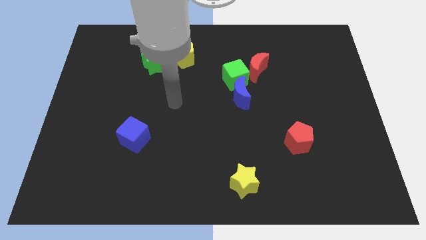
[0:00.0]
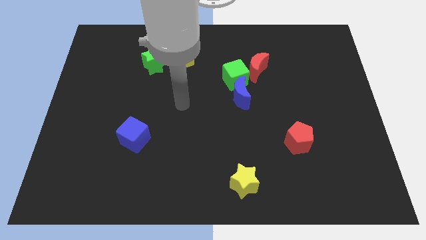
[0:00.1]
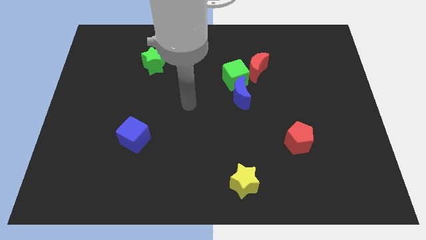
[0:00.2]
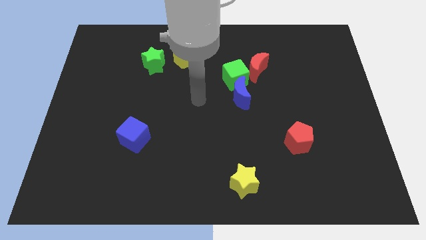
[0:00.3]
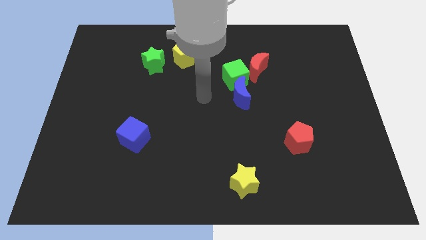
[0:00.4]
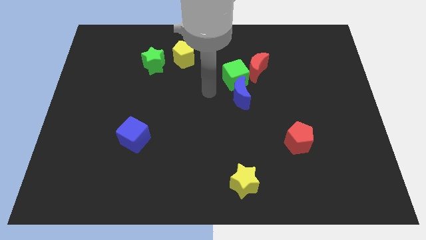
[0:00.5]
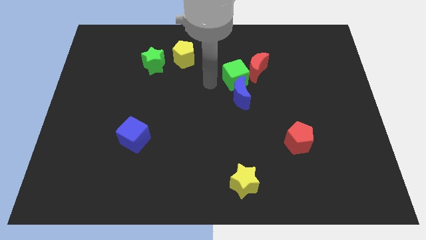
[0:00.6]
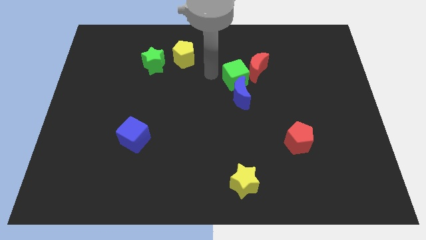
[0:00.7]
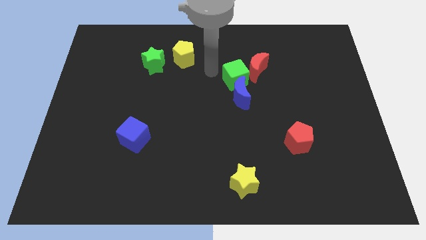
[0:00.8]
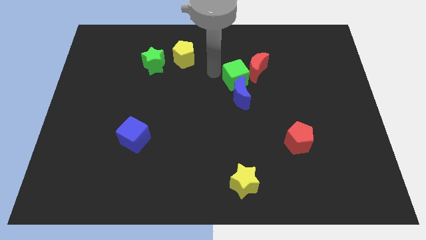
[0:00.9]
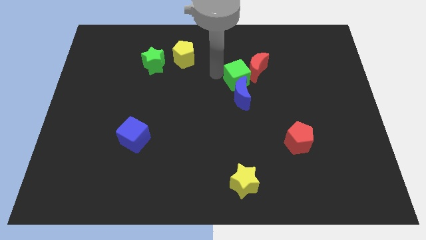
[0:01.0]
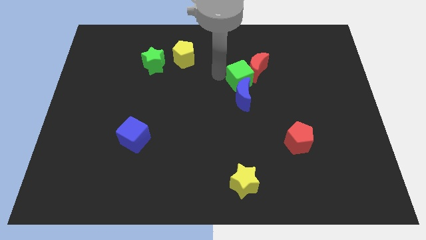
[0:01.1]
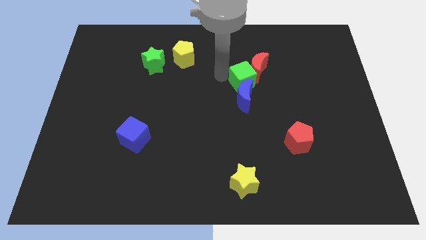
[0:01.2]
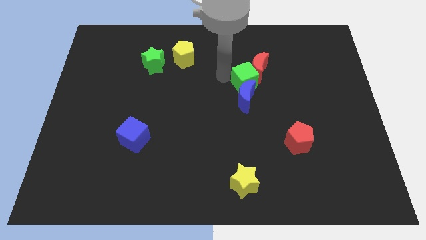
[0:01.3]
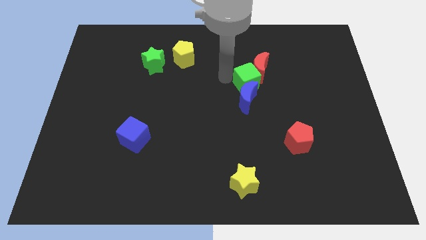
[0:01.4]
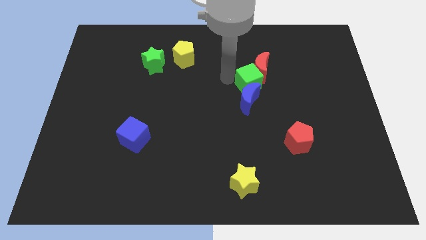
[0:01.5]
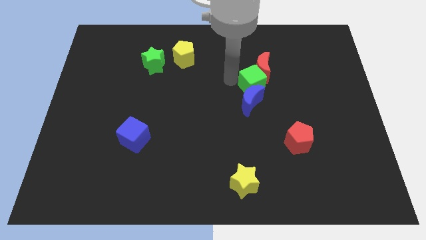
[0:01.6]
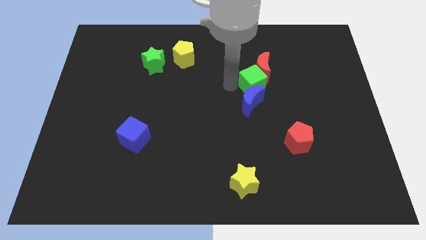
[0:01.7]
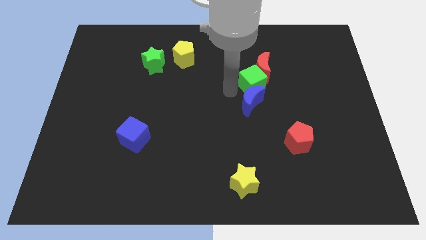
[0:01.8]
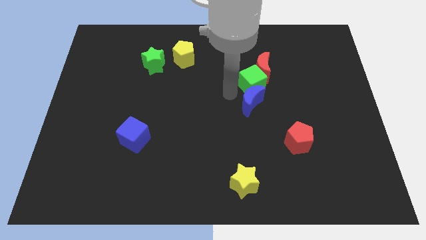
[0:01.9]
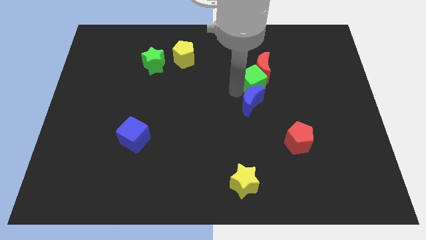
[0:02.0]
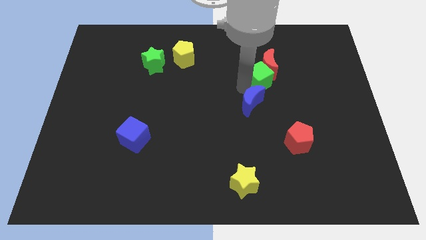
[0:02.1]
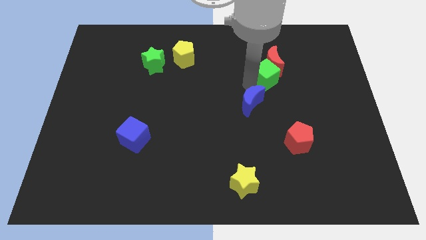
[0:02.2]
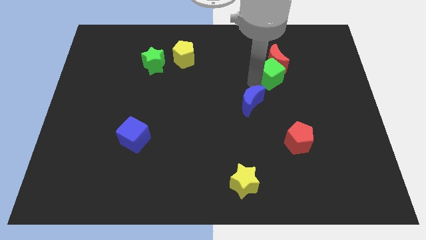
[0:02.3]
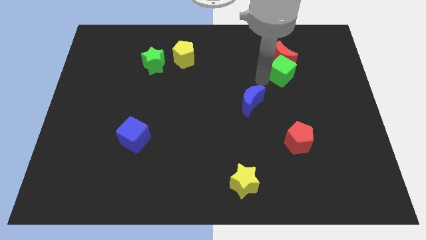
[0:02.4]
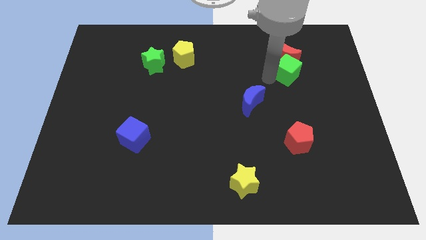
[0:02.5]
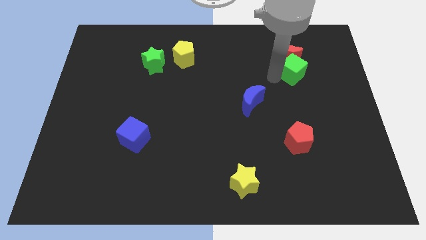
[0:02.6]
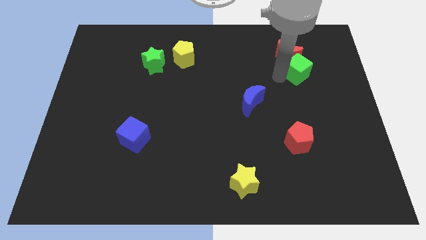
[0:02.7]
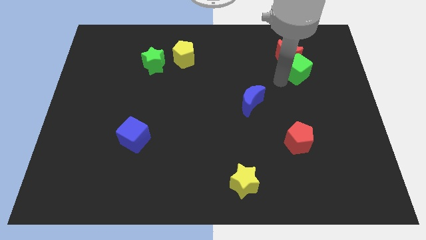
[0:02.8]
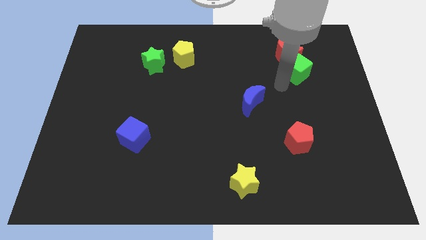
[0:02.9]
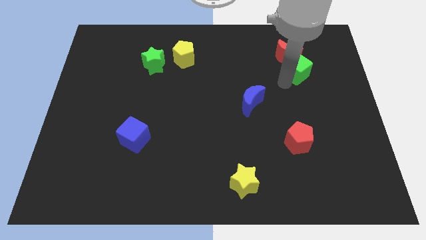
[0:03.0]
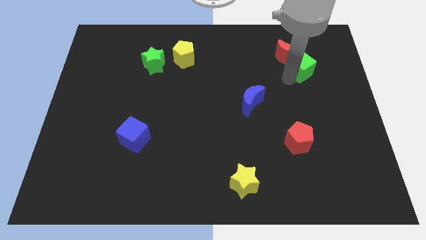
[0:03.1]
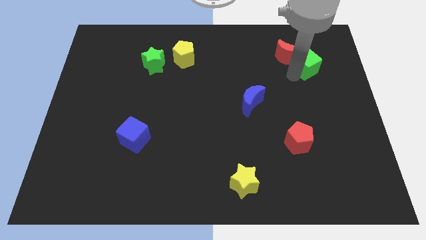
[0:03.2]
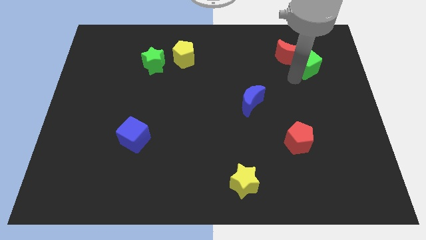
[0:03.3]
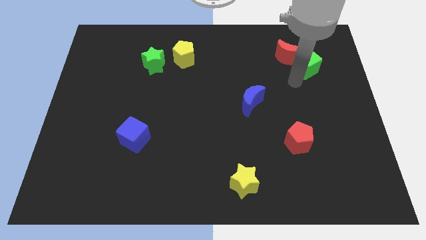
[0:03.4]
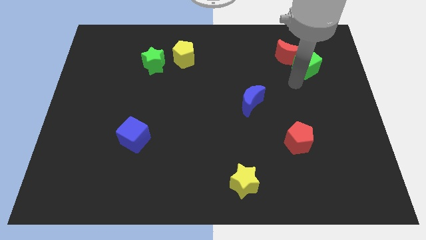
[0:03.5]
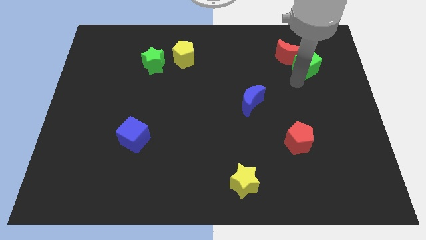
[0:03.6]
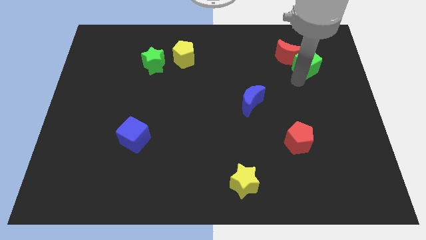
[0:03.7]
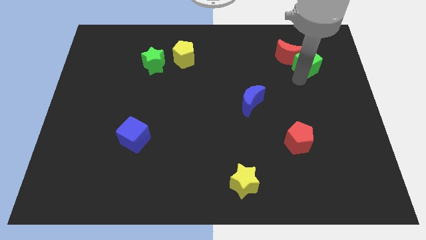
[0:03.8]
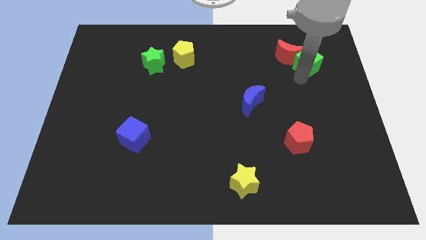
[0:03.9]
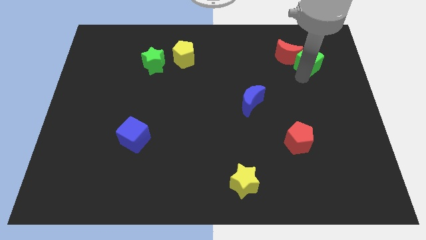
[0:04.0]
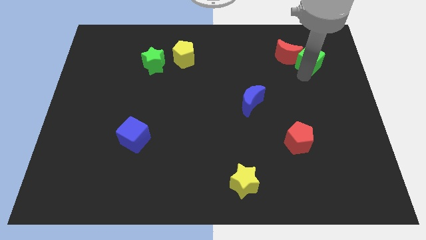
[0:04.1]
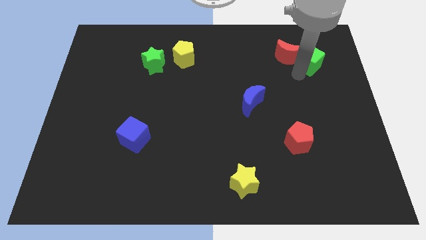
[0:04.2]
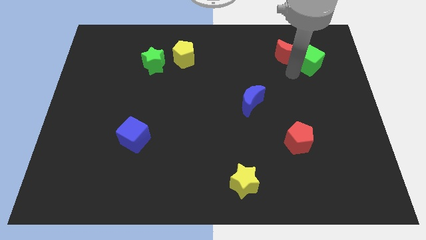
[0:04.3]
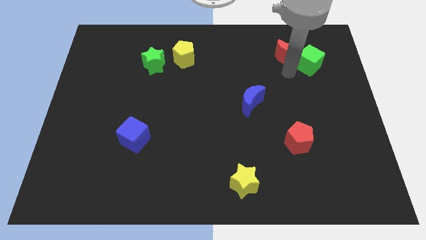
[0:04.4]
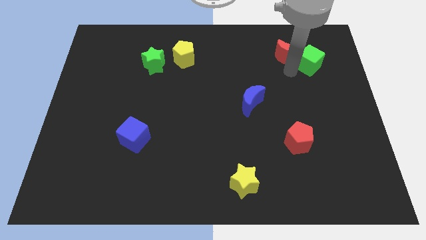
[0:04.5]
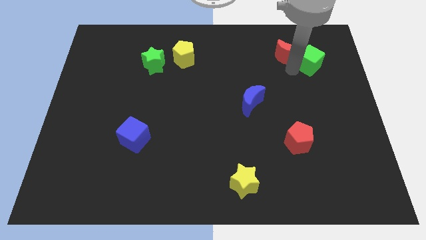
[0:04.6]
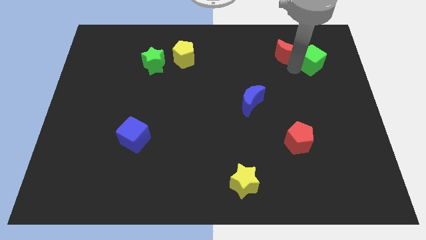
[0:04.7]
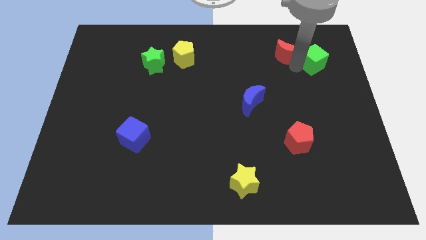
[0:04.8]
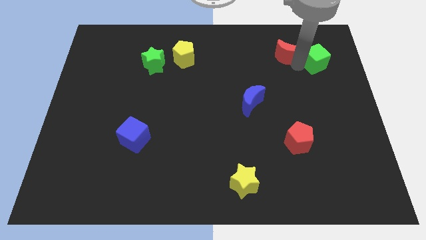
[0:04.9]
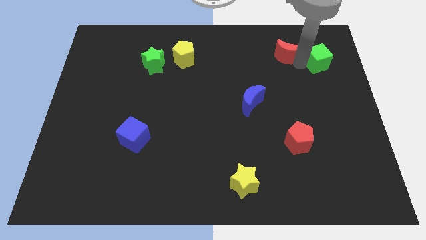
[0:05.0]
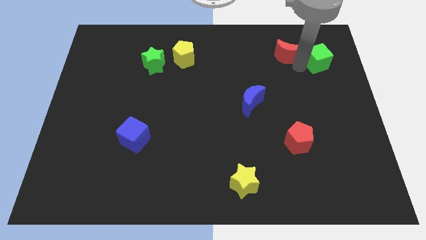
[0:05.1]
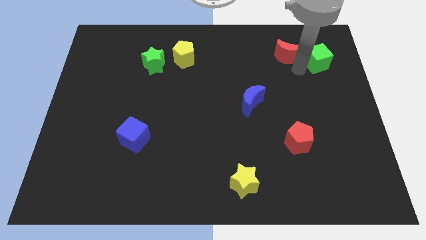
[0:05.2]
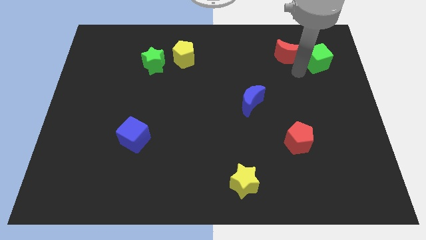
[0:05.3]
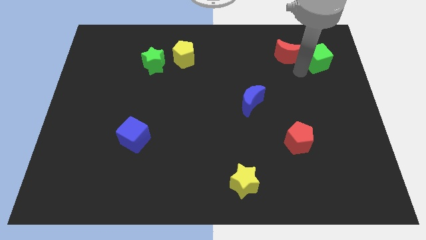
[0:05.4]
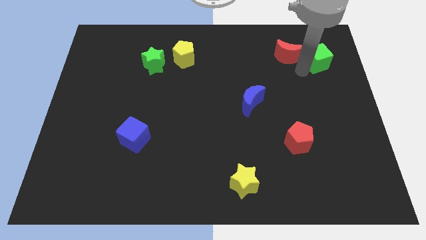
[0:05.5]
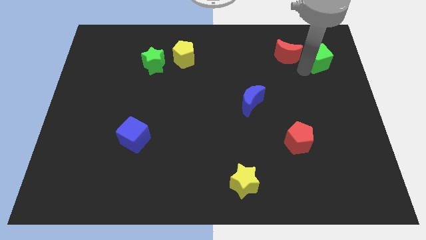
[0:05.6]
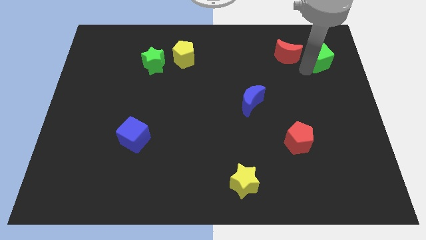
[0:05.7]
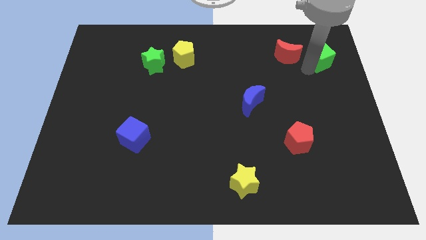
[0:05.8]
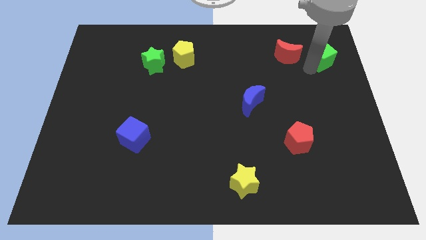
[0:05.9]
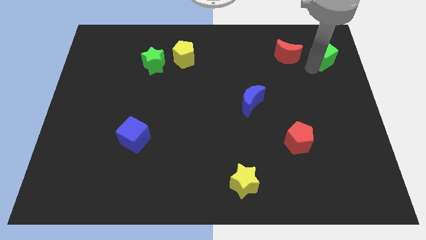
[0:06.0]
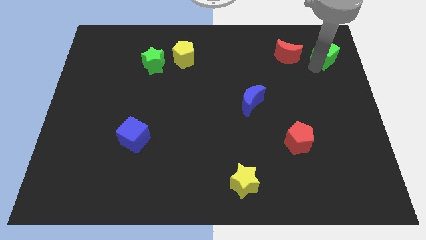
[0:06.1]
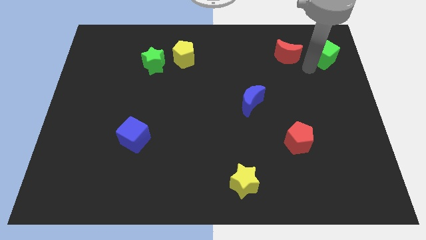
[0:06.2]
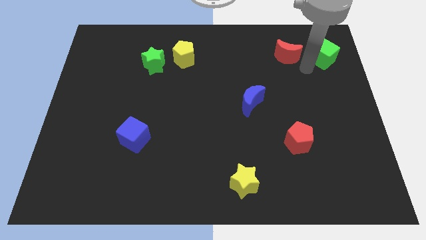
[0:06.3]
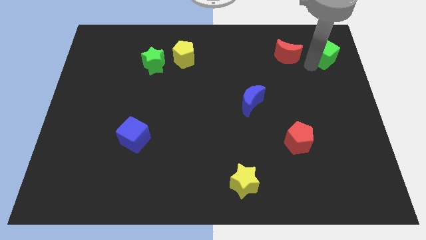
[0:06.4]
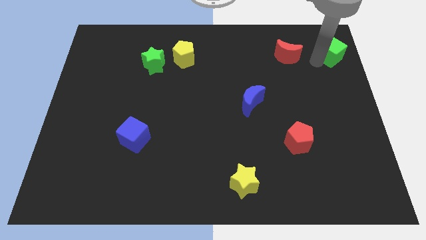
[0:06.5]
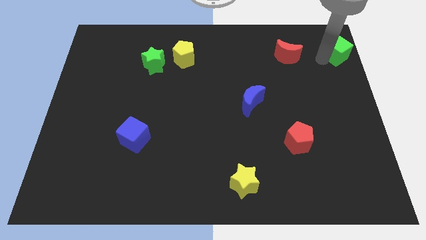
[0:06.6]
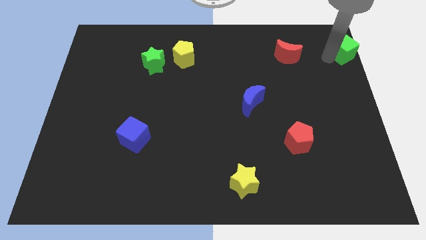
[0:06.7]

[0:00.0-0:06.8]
put the green cube to the upper right corner

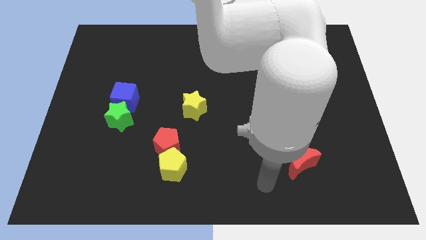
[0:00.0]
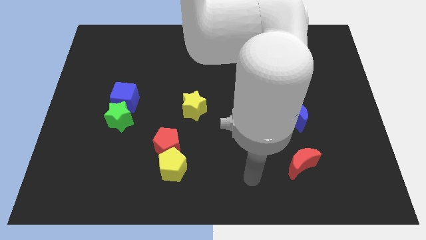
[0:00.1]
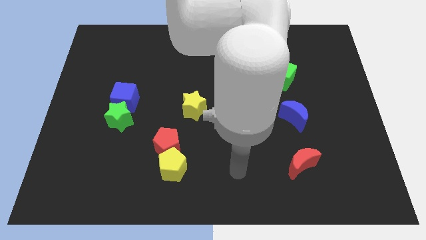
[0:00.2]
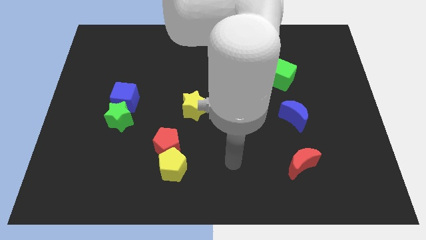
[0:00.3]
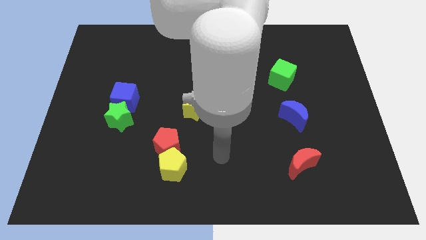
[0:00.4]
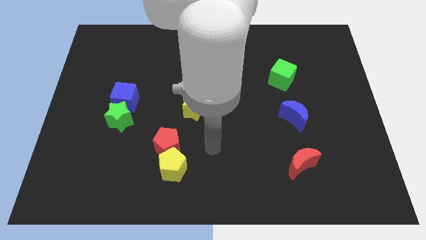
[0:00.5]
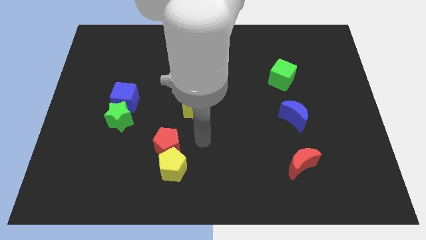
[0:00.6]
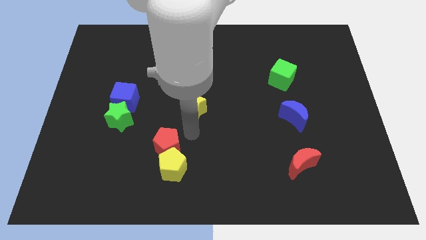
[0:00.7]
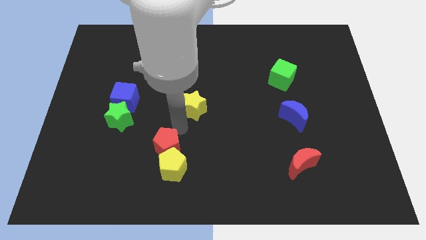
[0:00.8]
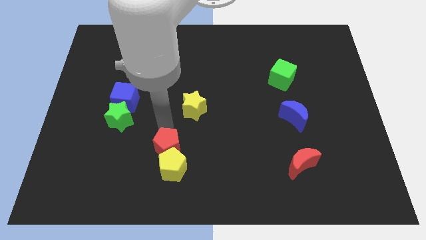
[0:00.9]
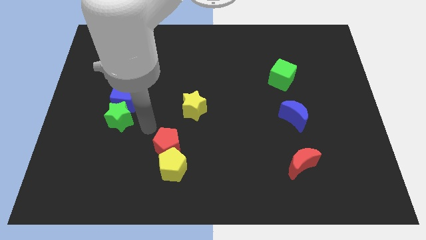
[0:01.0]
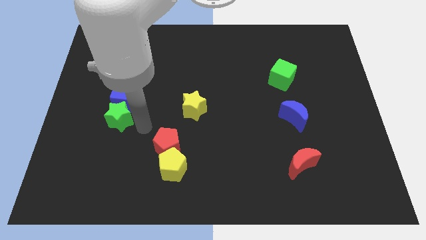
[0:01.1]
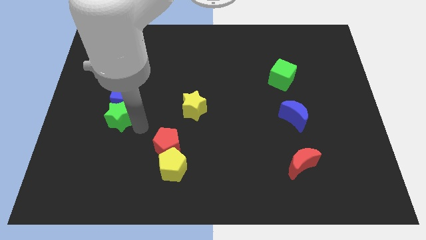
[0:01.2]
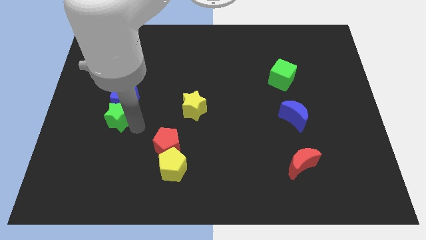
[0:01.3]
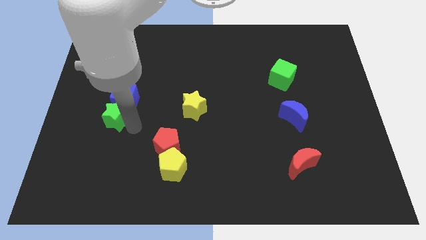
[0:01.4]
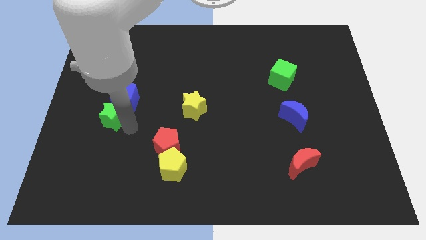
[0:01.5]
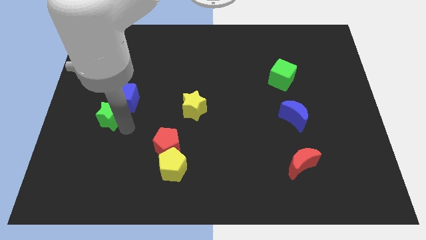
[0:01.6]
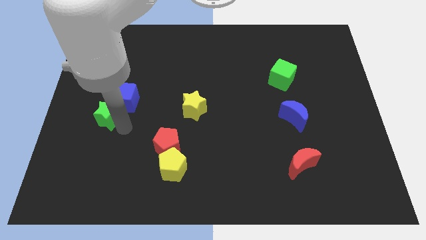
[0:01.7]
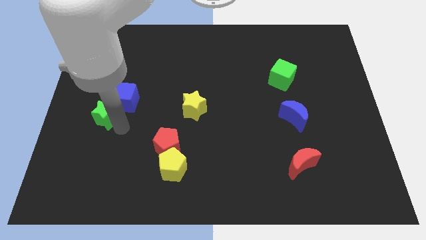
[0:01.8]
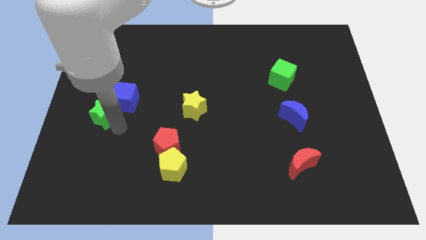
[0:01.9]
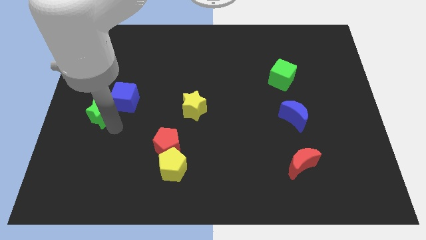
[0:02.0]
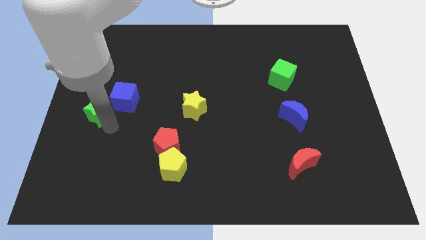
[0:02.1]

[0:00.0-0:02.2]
put the green star to the center left
